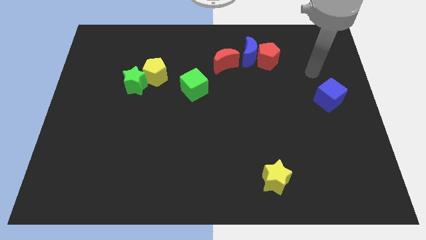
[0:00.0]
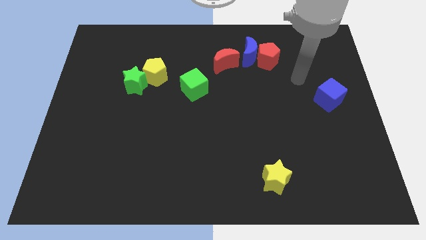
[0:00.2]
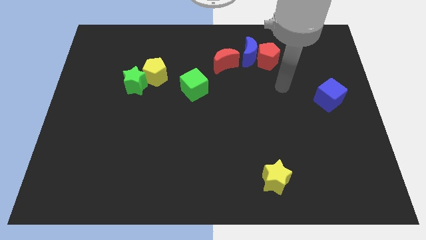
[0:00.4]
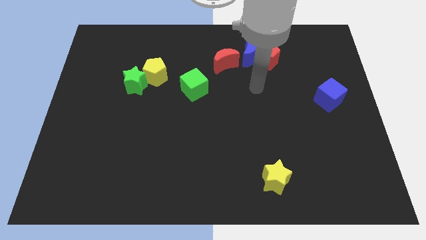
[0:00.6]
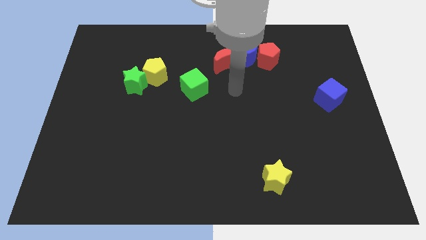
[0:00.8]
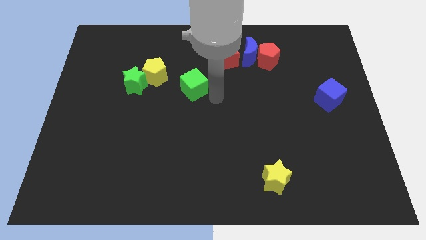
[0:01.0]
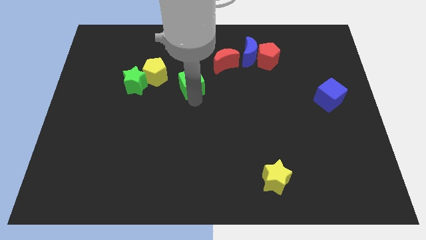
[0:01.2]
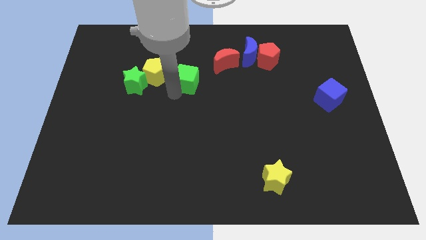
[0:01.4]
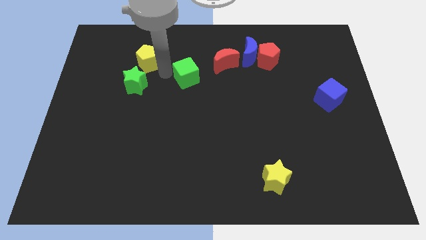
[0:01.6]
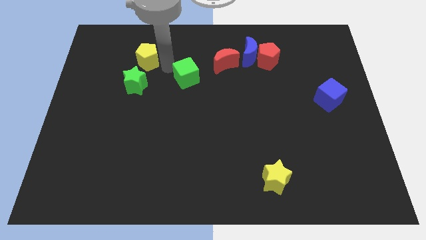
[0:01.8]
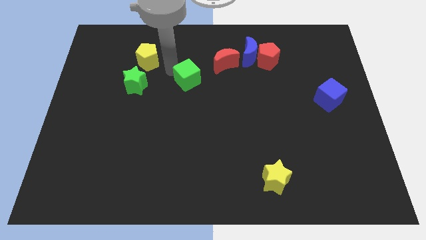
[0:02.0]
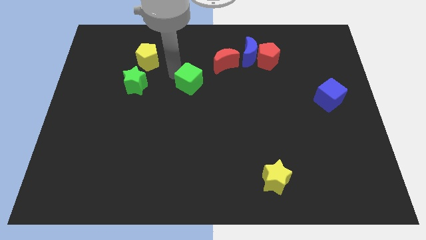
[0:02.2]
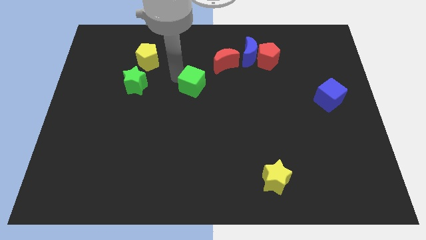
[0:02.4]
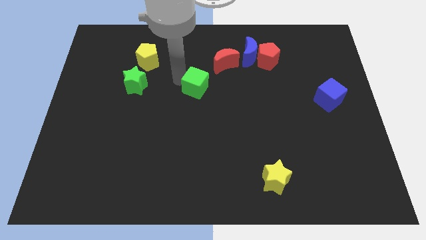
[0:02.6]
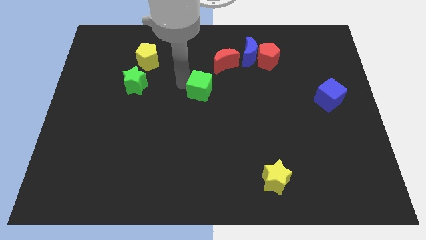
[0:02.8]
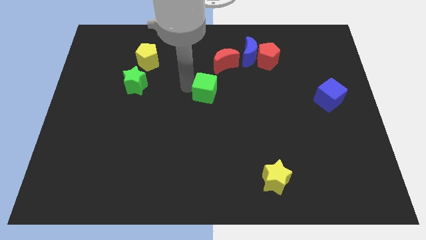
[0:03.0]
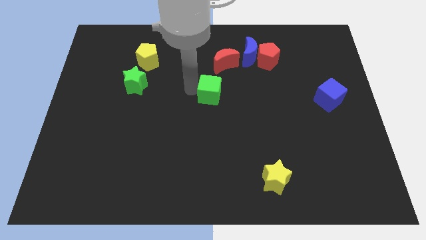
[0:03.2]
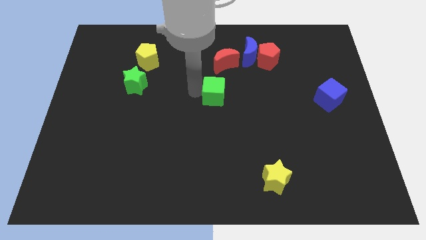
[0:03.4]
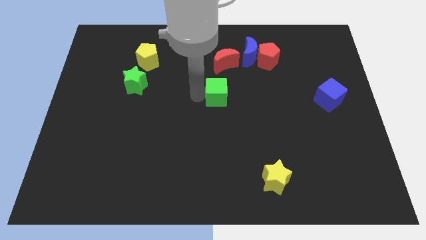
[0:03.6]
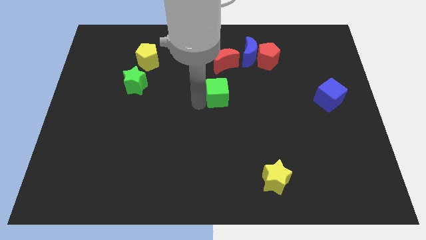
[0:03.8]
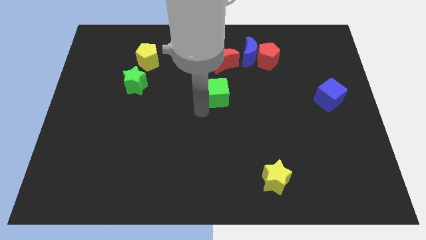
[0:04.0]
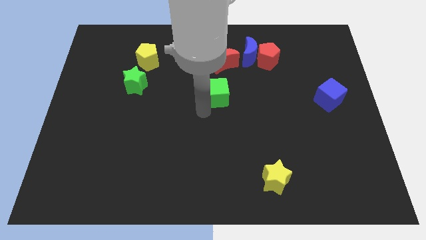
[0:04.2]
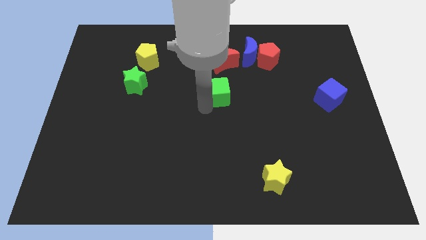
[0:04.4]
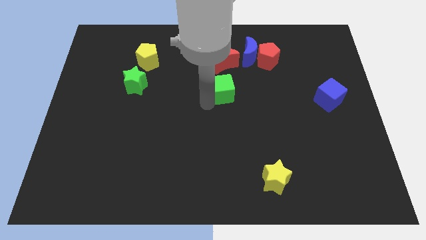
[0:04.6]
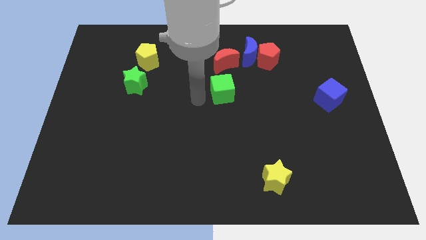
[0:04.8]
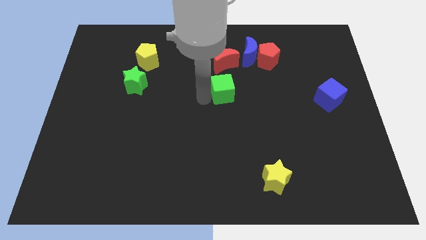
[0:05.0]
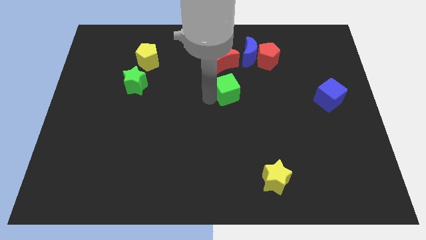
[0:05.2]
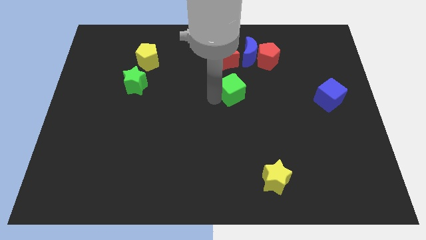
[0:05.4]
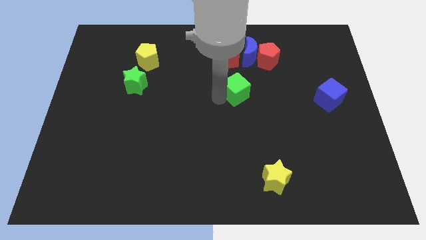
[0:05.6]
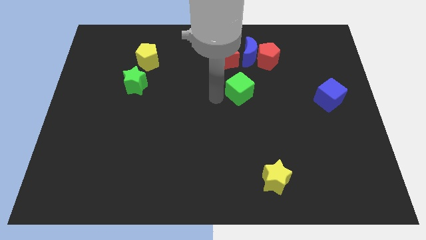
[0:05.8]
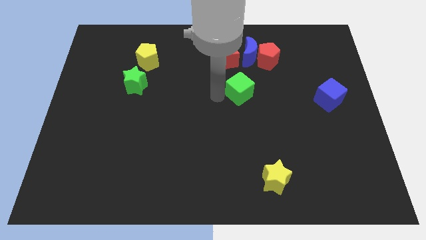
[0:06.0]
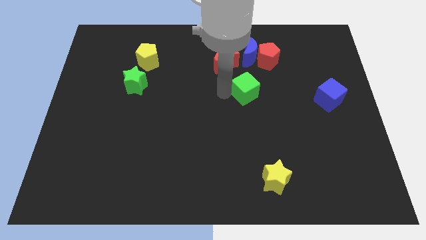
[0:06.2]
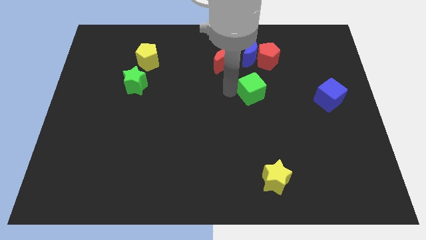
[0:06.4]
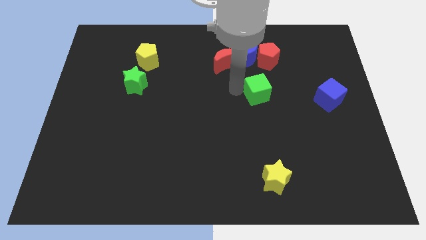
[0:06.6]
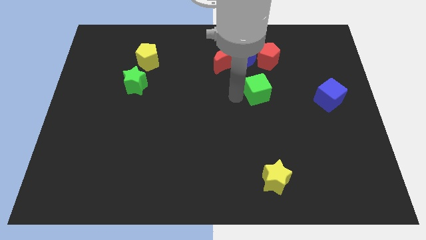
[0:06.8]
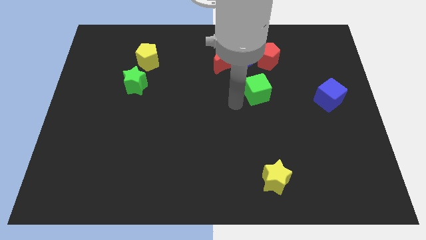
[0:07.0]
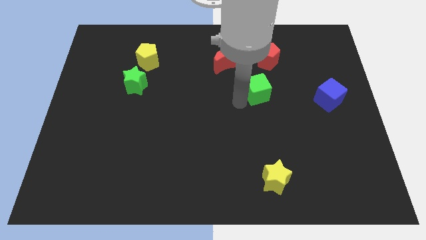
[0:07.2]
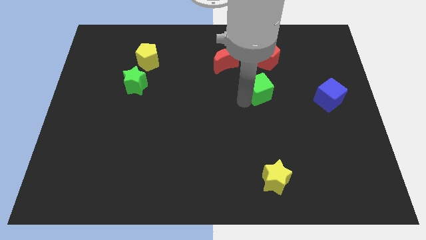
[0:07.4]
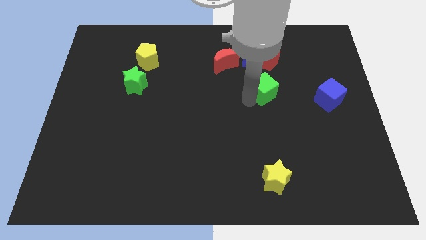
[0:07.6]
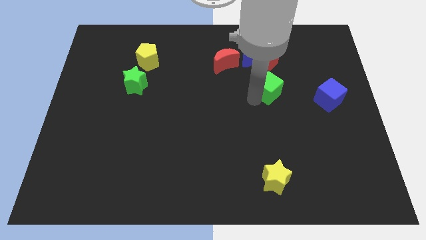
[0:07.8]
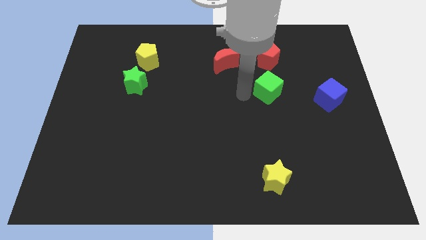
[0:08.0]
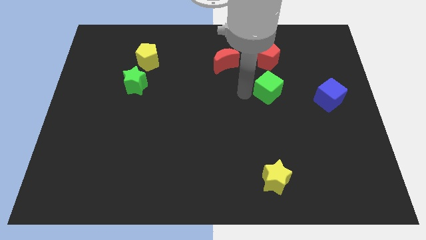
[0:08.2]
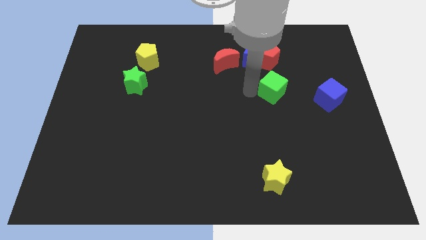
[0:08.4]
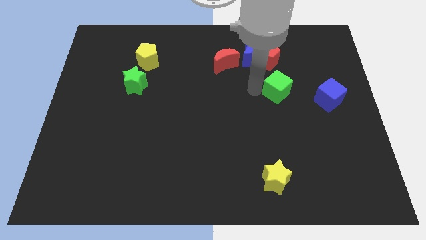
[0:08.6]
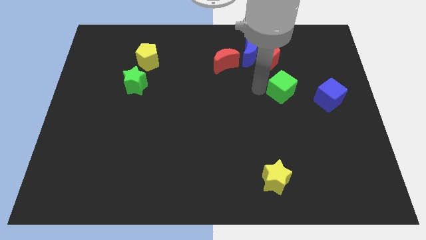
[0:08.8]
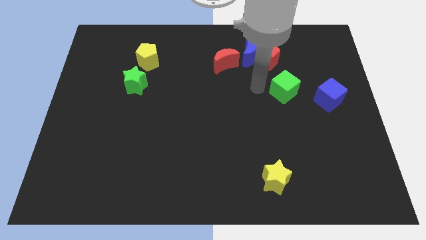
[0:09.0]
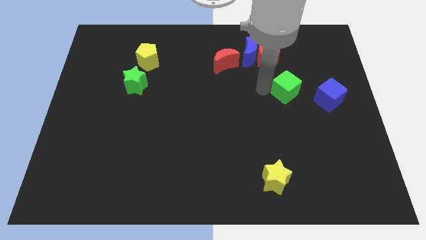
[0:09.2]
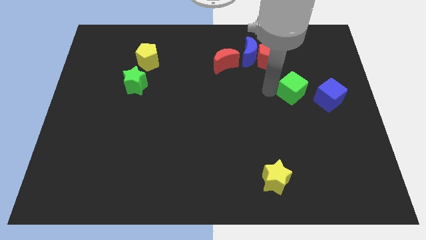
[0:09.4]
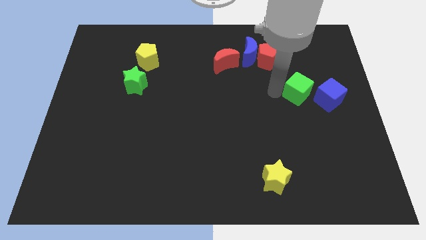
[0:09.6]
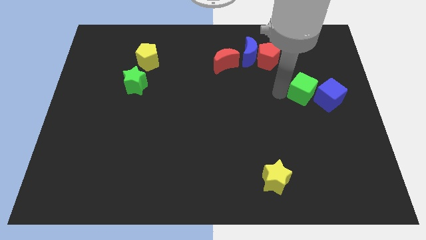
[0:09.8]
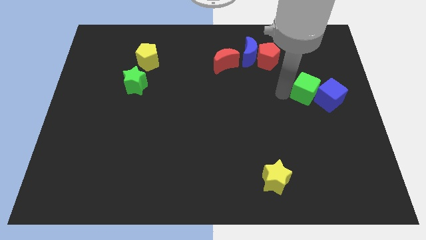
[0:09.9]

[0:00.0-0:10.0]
push the green cube to the blue cube

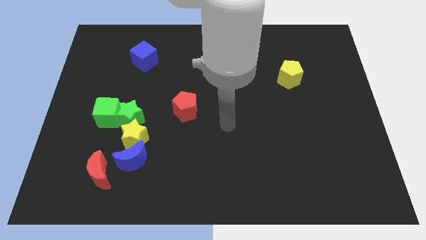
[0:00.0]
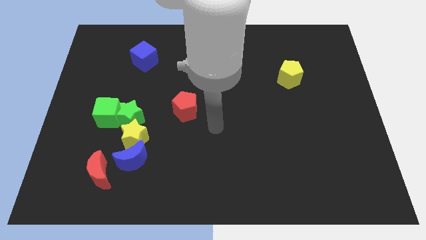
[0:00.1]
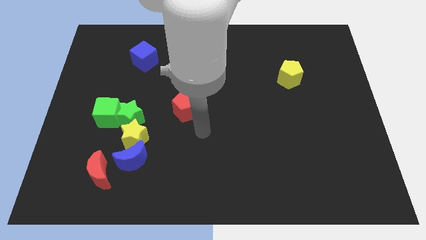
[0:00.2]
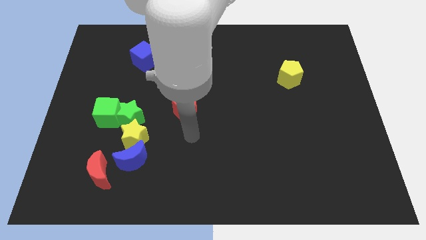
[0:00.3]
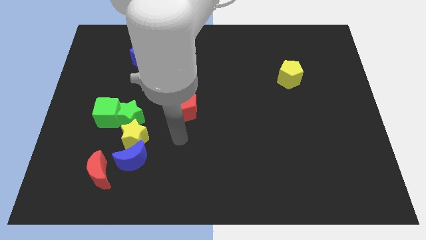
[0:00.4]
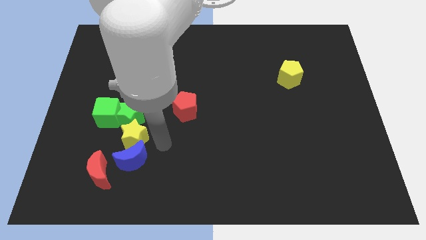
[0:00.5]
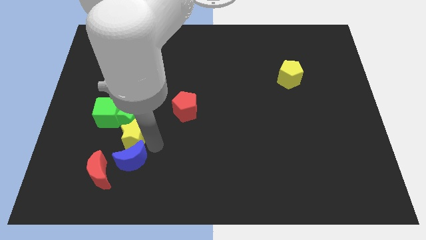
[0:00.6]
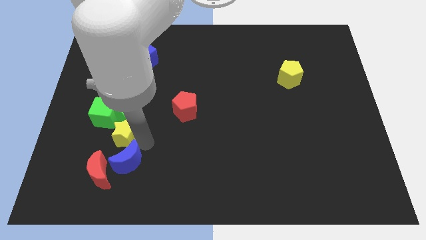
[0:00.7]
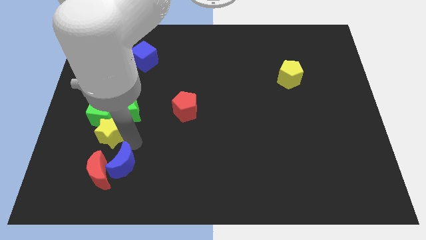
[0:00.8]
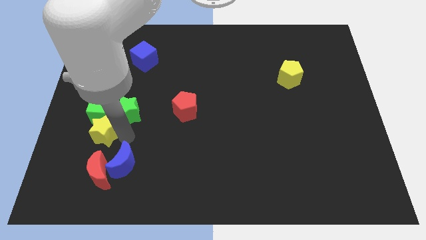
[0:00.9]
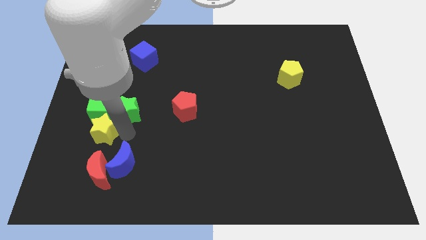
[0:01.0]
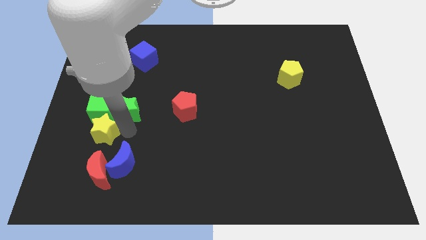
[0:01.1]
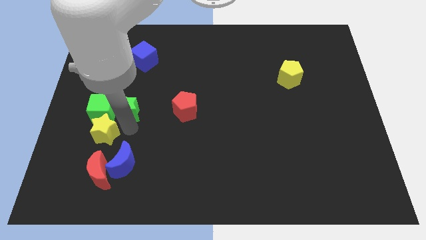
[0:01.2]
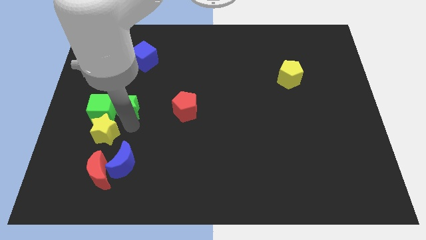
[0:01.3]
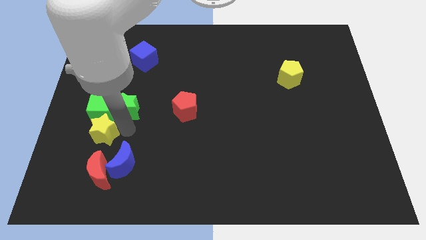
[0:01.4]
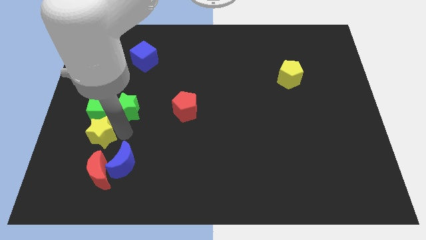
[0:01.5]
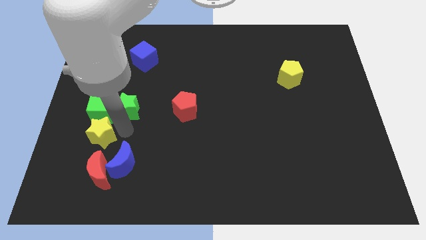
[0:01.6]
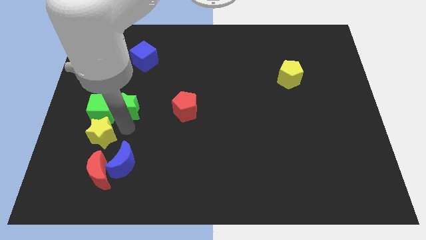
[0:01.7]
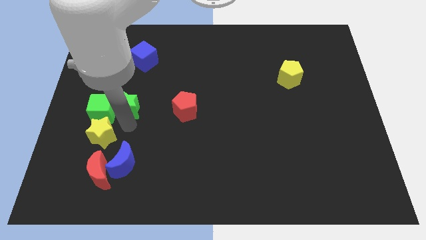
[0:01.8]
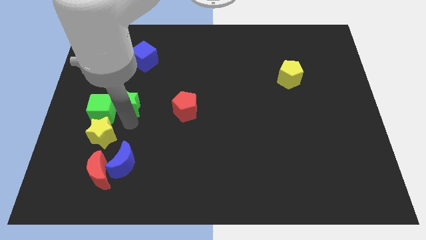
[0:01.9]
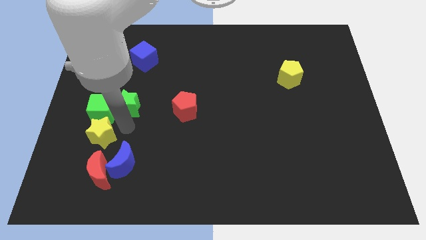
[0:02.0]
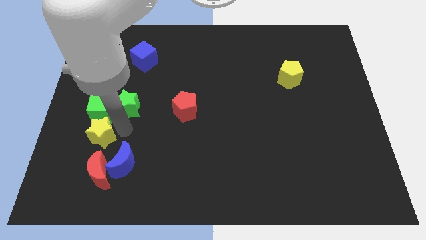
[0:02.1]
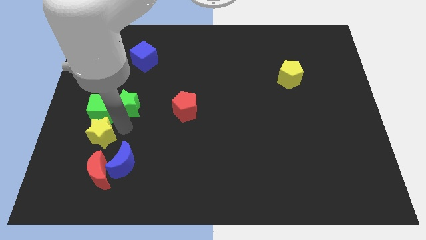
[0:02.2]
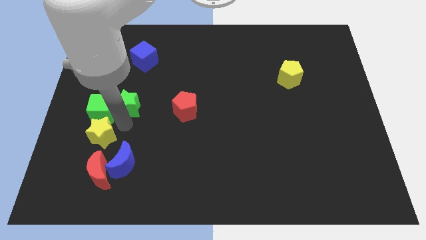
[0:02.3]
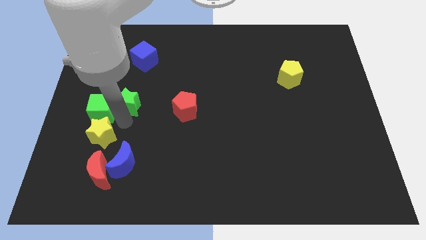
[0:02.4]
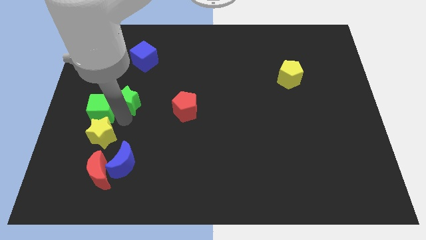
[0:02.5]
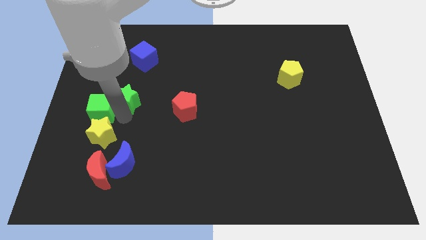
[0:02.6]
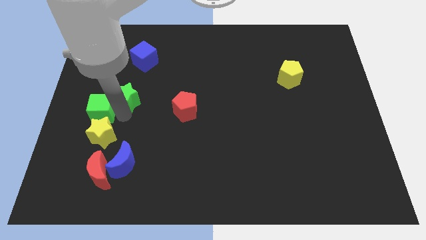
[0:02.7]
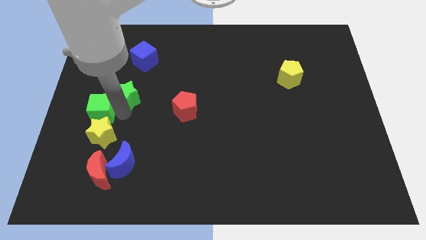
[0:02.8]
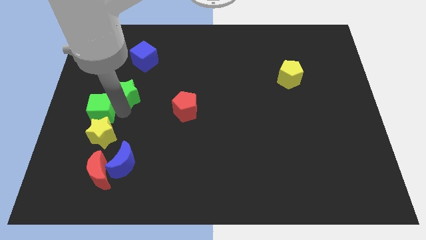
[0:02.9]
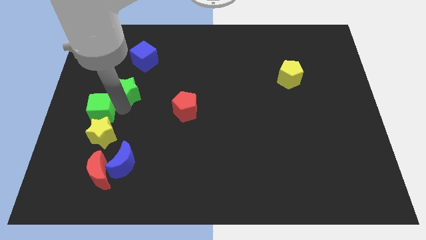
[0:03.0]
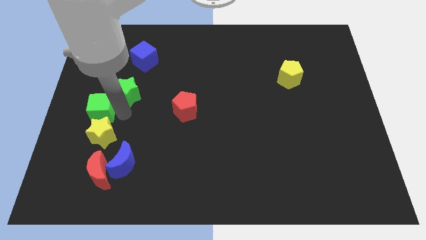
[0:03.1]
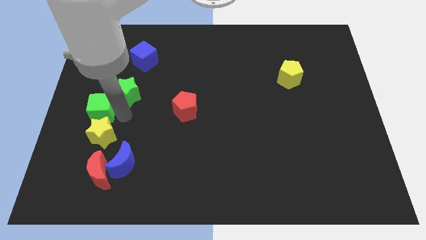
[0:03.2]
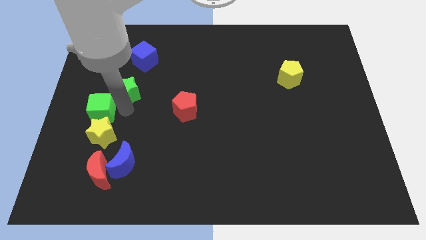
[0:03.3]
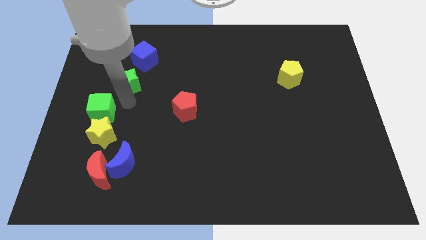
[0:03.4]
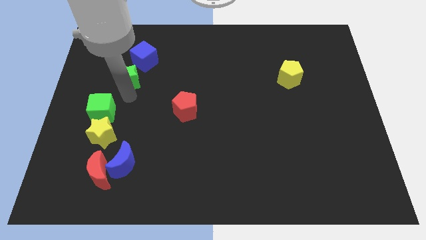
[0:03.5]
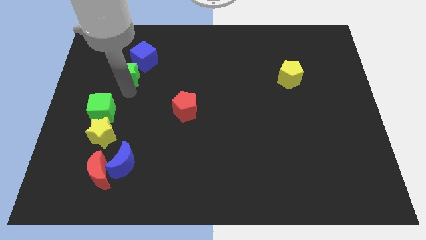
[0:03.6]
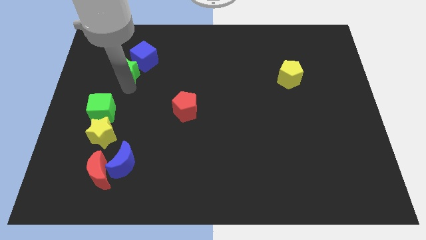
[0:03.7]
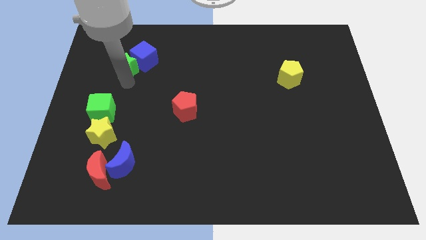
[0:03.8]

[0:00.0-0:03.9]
push the green star next to the blue cube
